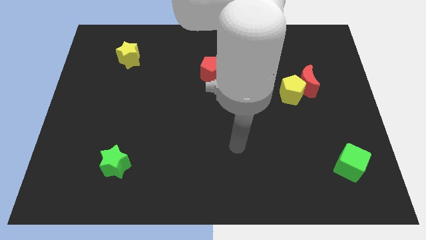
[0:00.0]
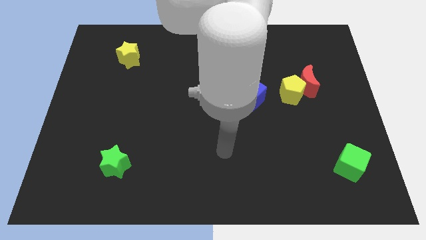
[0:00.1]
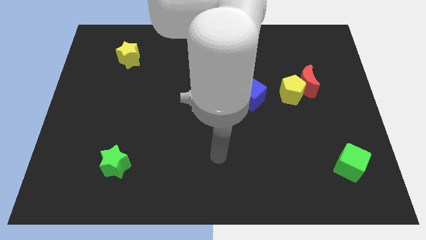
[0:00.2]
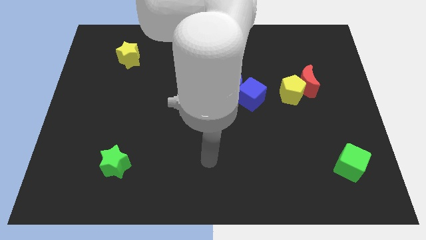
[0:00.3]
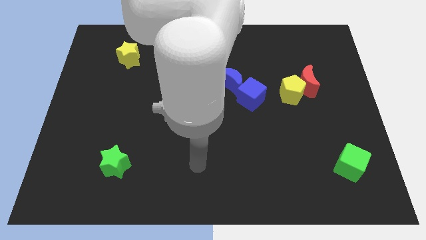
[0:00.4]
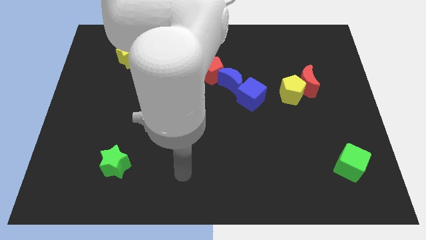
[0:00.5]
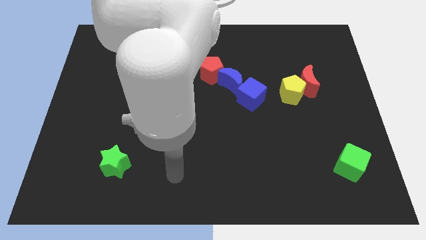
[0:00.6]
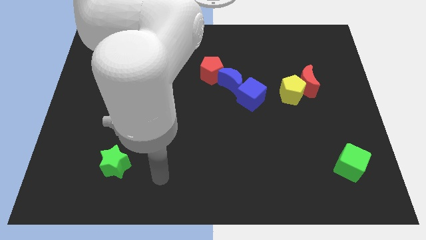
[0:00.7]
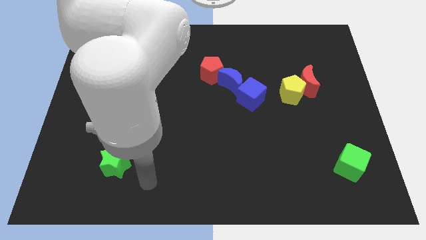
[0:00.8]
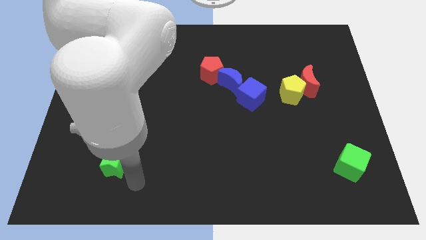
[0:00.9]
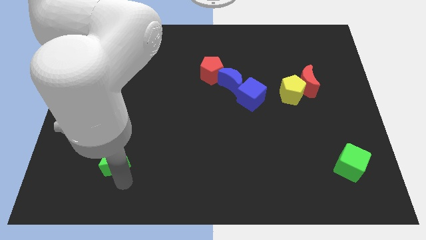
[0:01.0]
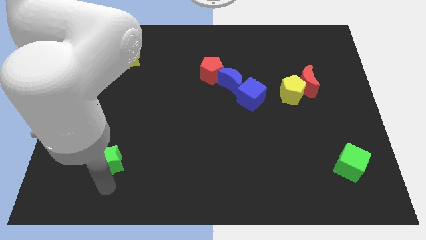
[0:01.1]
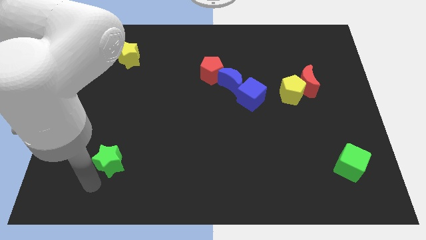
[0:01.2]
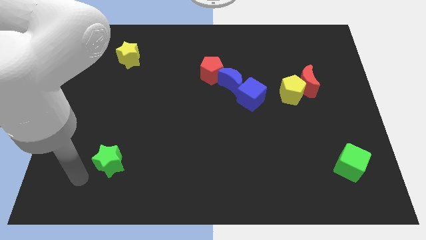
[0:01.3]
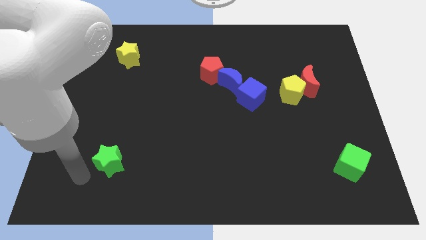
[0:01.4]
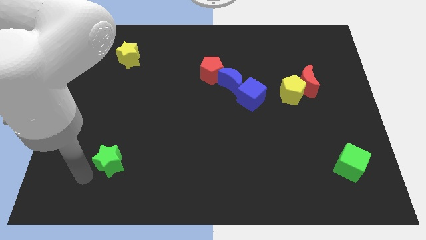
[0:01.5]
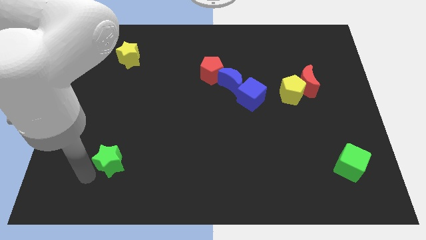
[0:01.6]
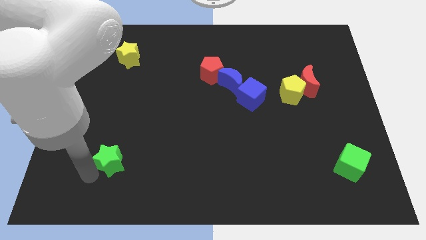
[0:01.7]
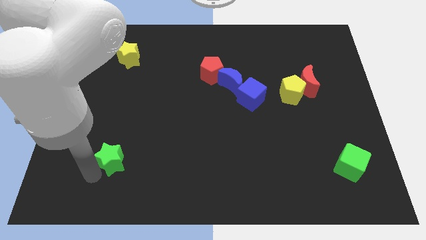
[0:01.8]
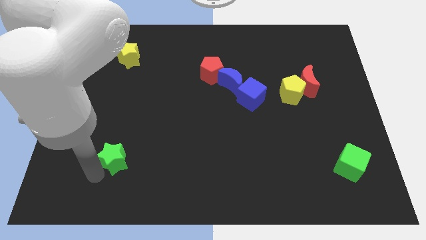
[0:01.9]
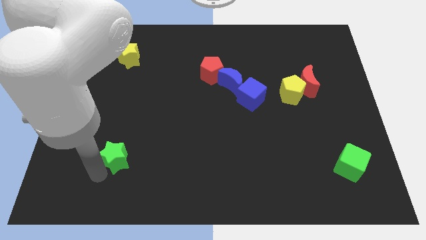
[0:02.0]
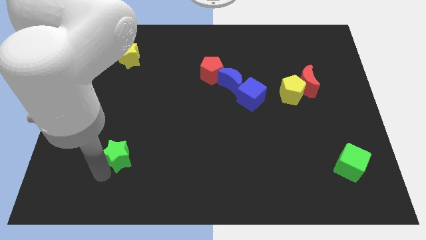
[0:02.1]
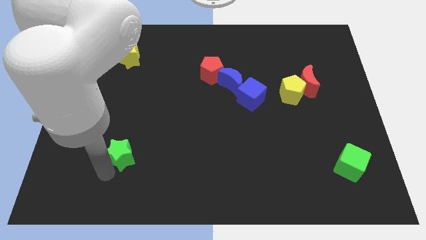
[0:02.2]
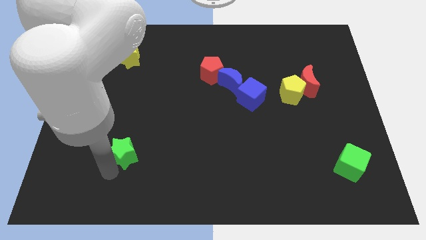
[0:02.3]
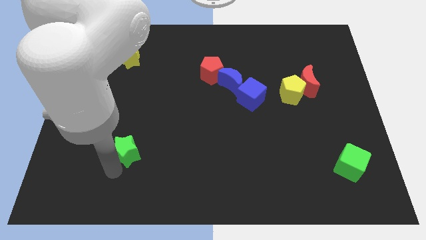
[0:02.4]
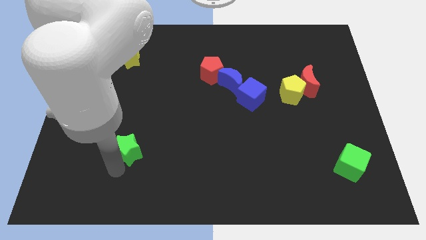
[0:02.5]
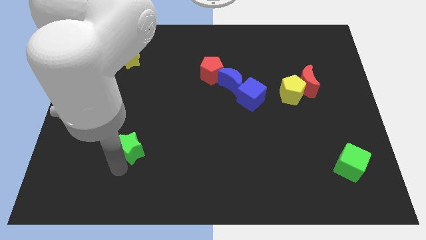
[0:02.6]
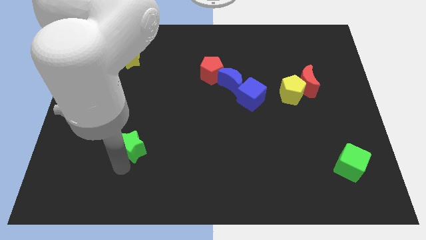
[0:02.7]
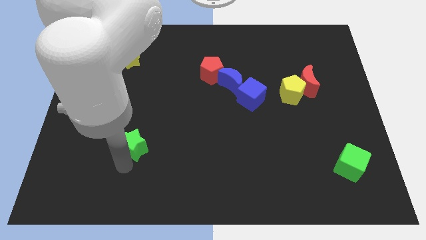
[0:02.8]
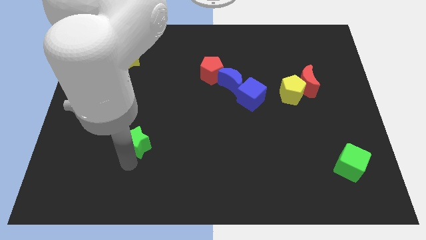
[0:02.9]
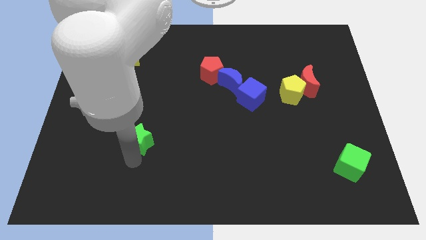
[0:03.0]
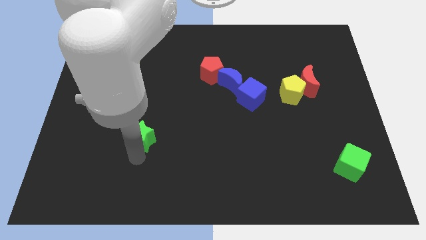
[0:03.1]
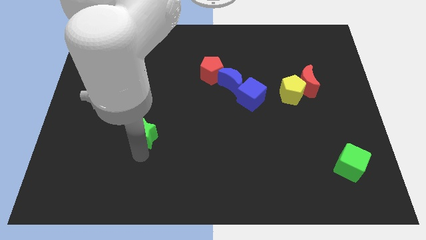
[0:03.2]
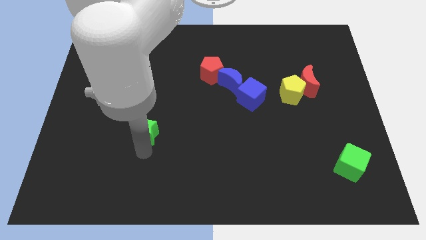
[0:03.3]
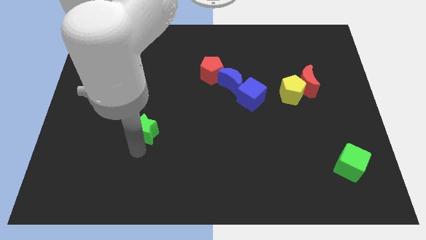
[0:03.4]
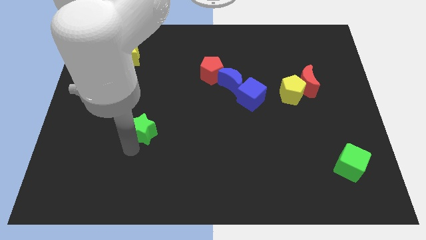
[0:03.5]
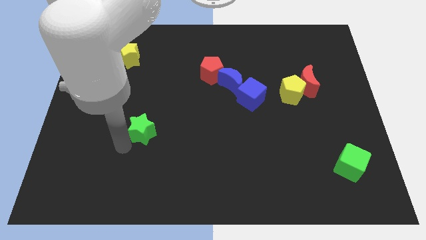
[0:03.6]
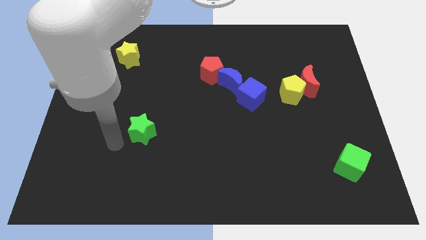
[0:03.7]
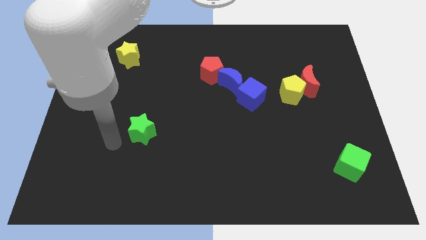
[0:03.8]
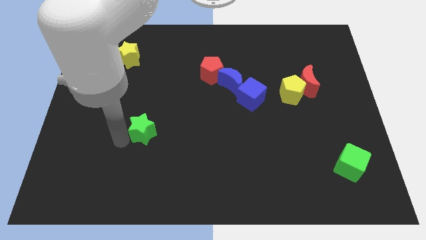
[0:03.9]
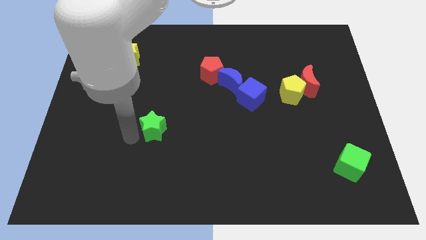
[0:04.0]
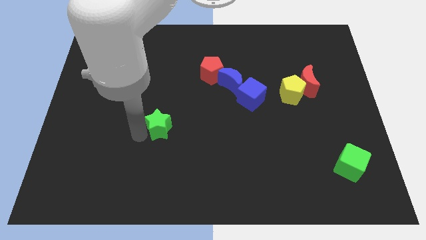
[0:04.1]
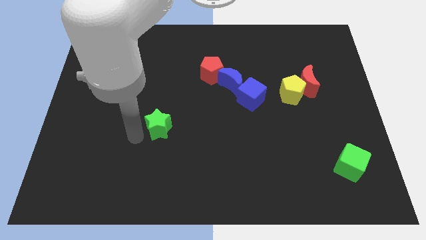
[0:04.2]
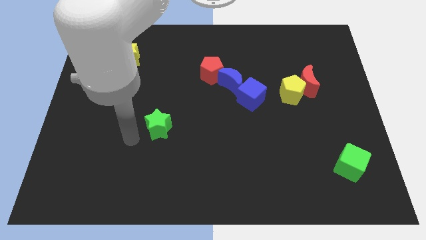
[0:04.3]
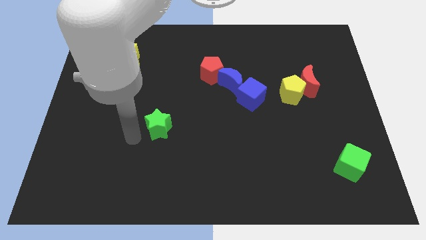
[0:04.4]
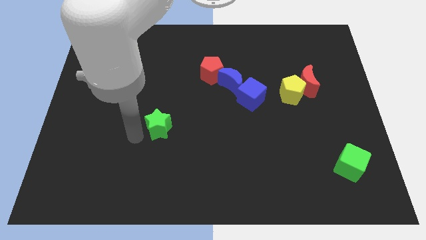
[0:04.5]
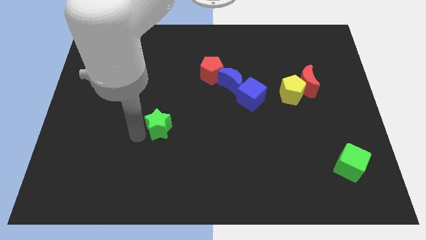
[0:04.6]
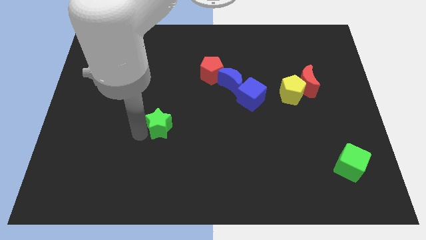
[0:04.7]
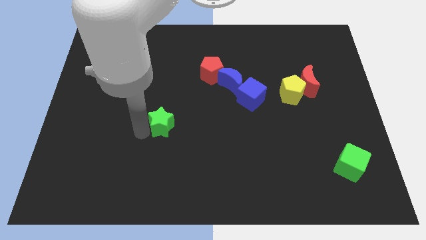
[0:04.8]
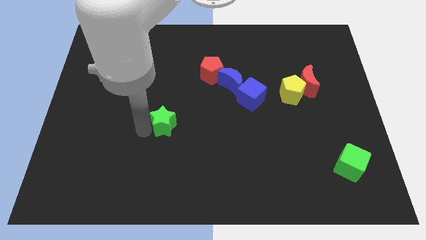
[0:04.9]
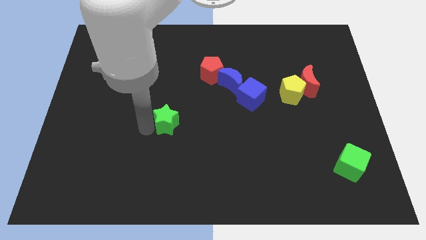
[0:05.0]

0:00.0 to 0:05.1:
slide the green star to the middle of the board

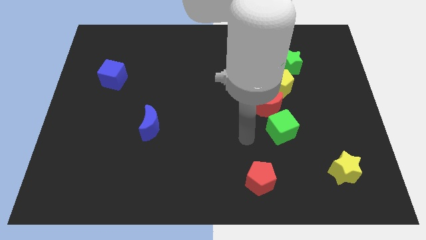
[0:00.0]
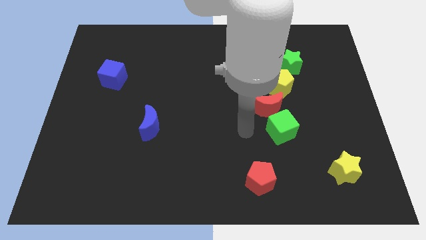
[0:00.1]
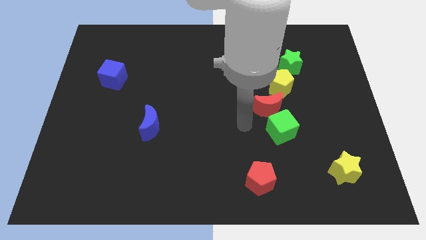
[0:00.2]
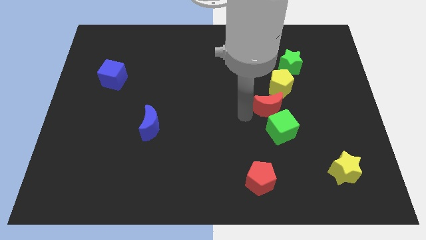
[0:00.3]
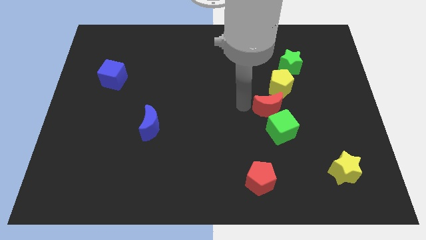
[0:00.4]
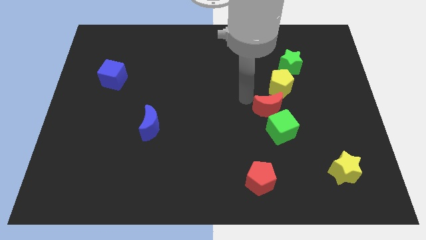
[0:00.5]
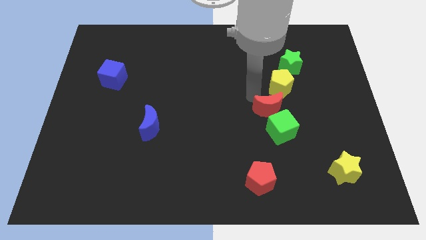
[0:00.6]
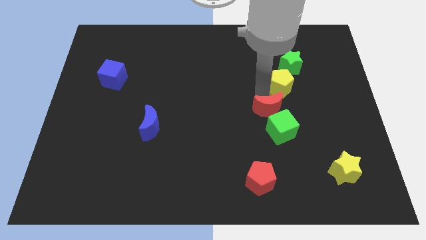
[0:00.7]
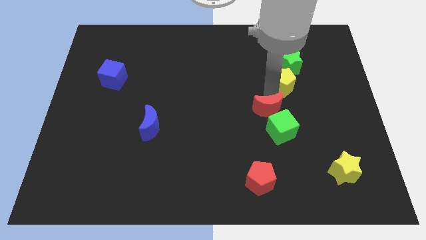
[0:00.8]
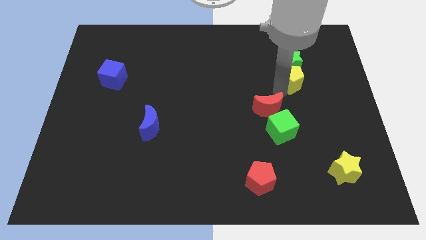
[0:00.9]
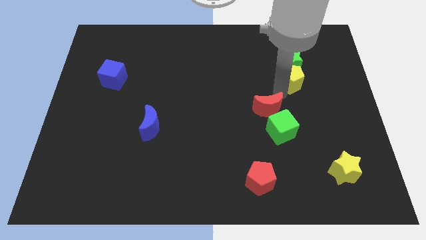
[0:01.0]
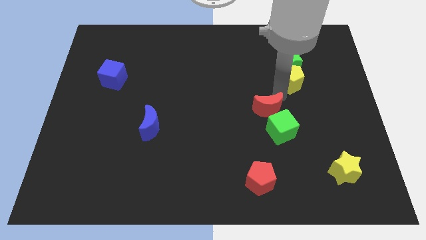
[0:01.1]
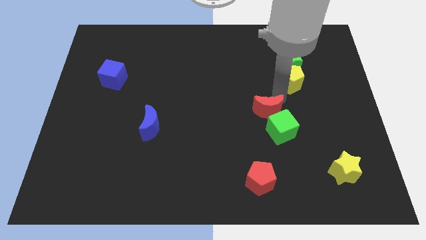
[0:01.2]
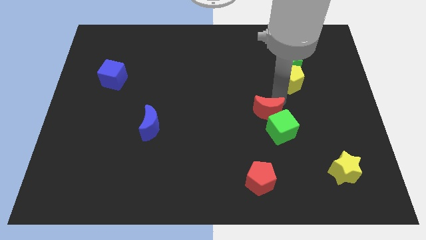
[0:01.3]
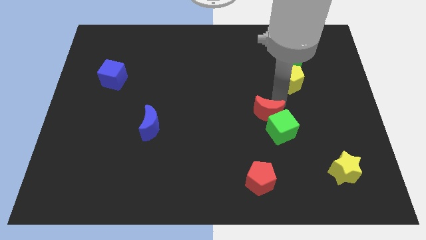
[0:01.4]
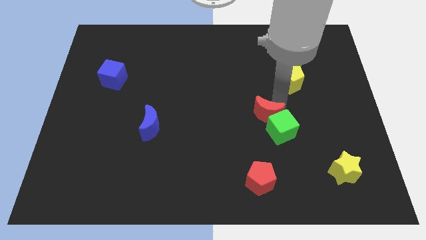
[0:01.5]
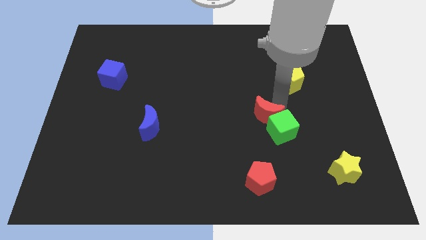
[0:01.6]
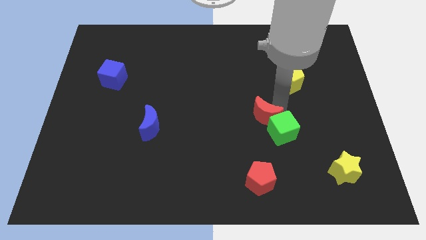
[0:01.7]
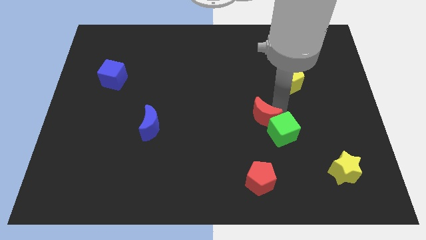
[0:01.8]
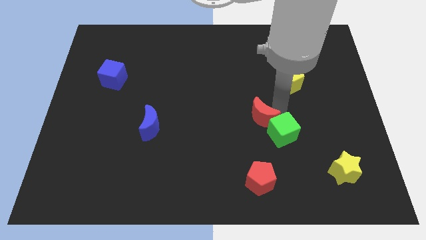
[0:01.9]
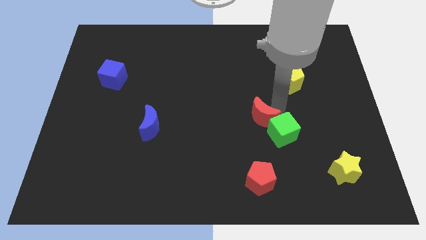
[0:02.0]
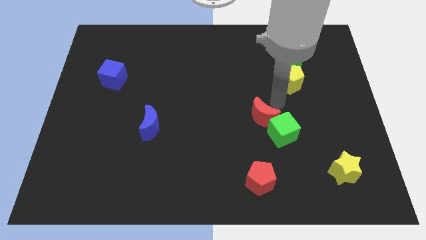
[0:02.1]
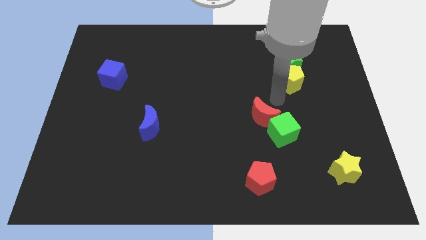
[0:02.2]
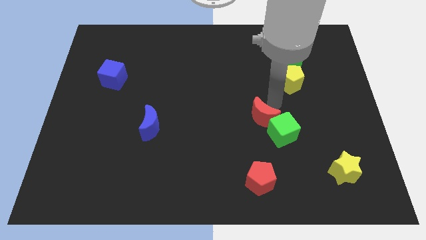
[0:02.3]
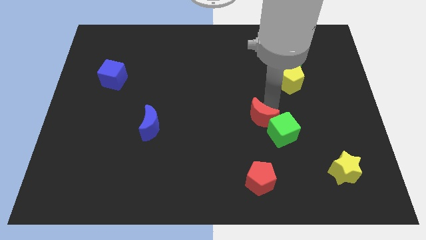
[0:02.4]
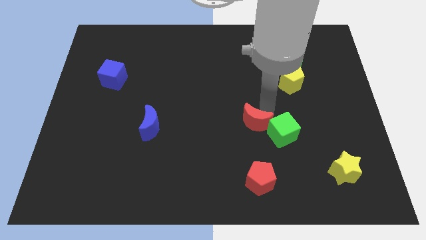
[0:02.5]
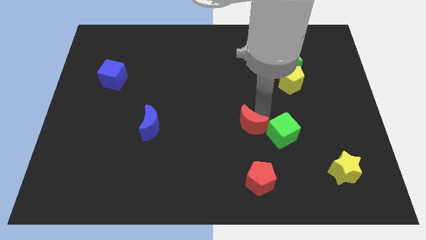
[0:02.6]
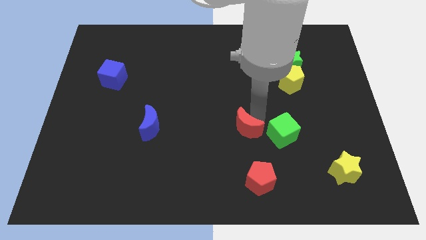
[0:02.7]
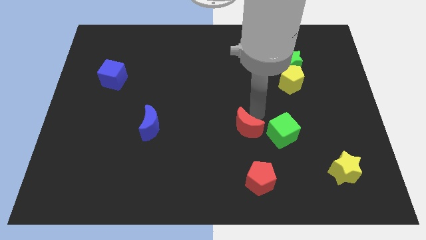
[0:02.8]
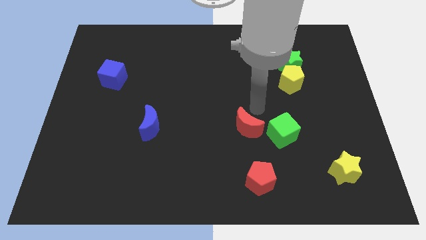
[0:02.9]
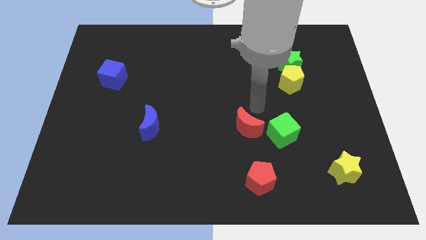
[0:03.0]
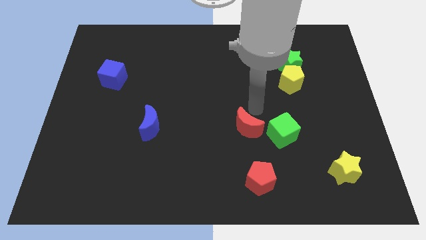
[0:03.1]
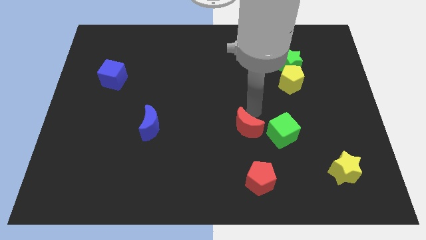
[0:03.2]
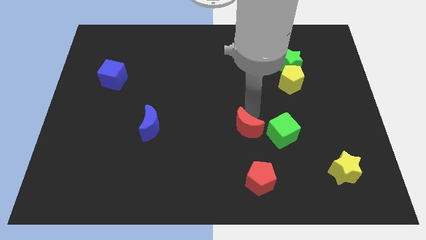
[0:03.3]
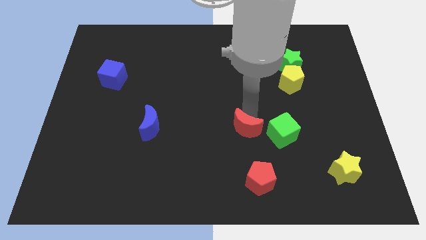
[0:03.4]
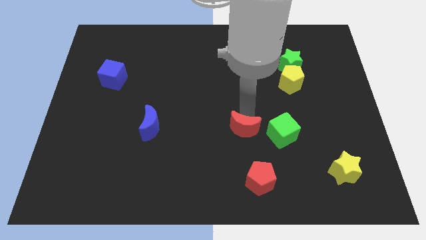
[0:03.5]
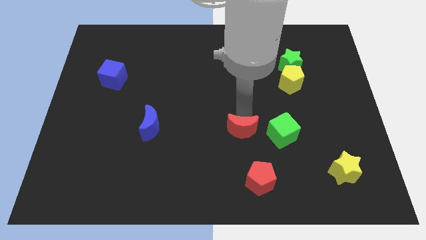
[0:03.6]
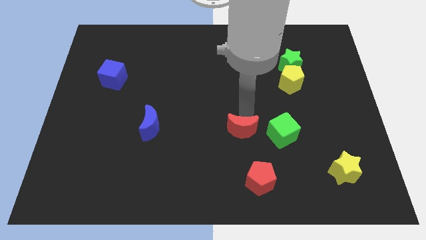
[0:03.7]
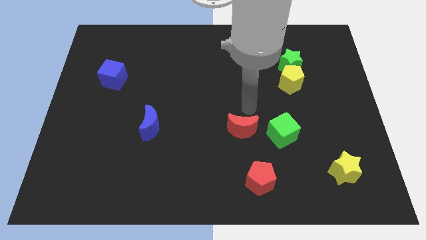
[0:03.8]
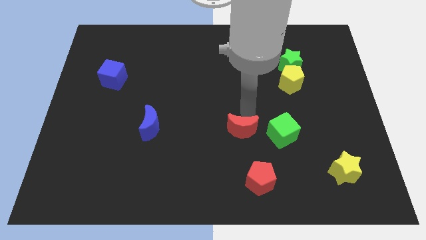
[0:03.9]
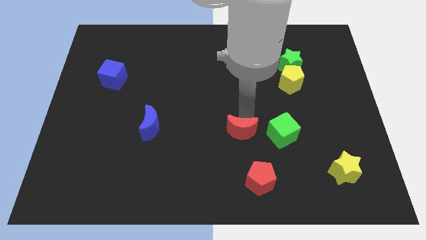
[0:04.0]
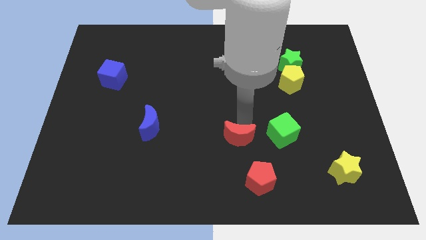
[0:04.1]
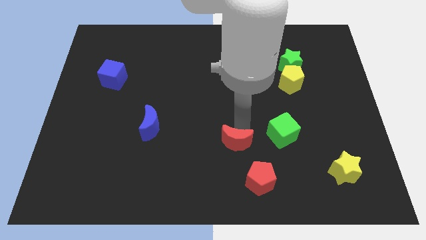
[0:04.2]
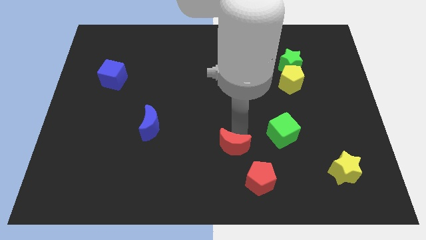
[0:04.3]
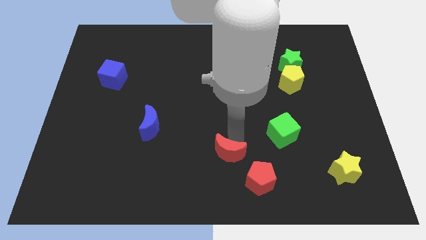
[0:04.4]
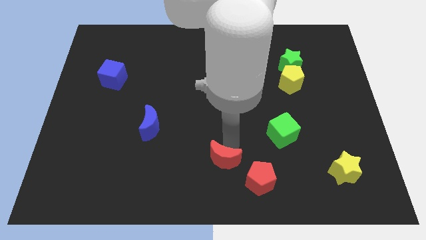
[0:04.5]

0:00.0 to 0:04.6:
move the red moon to the bottom side
